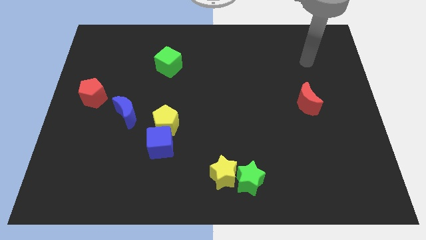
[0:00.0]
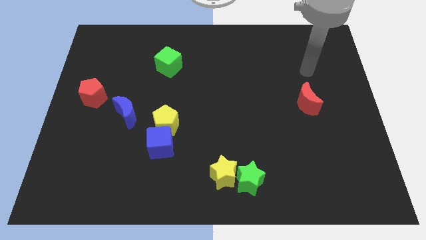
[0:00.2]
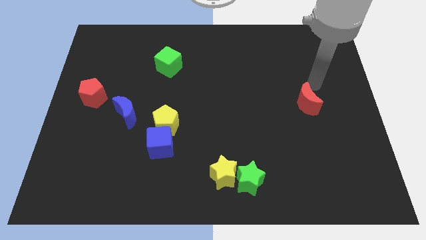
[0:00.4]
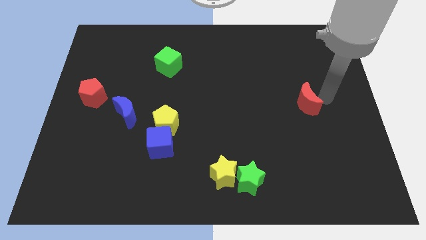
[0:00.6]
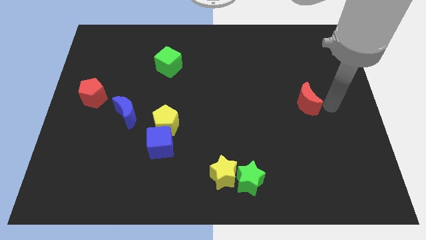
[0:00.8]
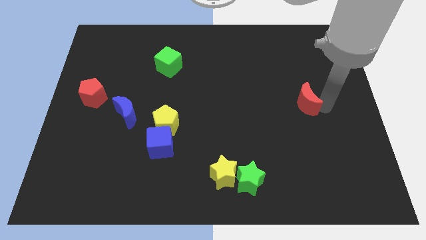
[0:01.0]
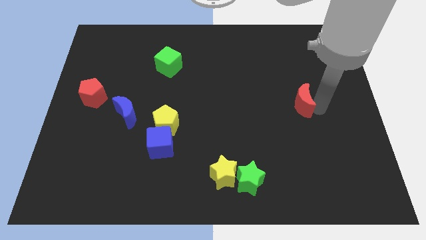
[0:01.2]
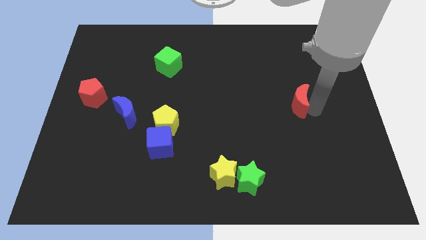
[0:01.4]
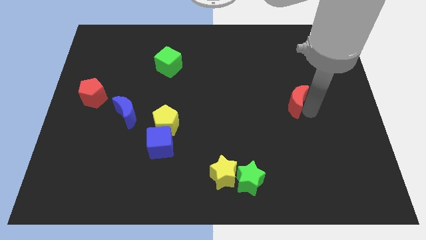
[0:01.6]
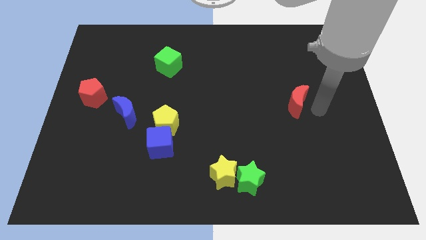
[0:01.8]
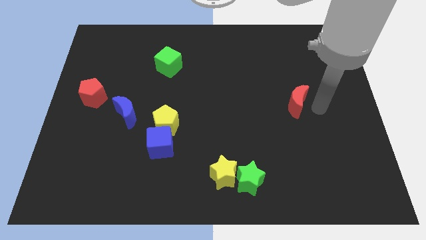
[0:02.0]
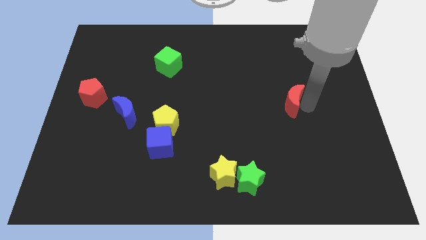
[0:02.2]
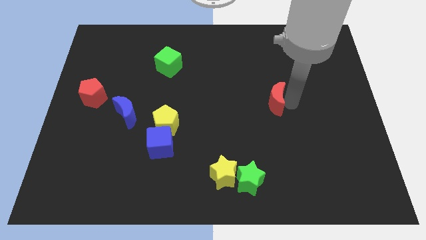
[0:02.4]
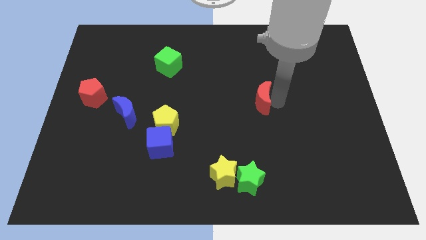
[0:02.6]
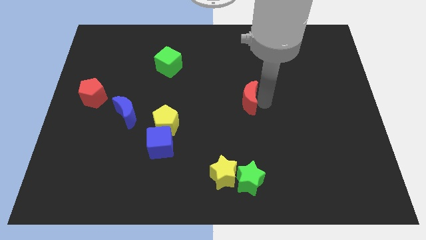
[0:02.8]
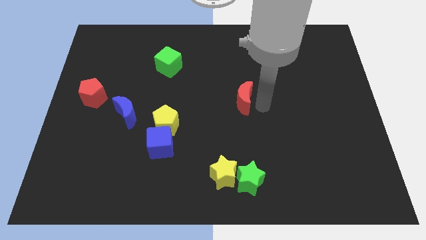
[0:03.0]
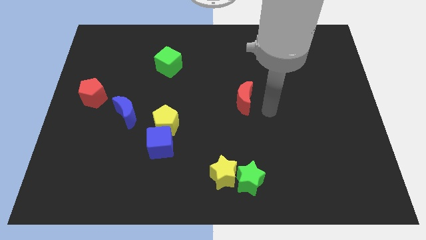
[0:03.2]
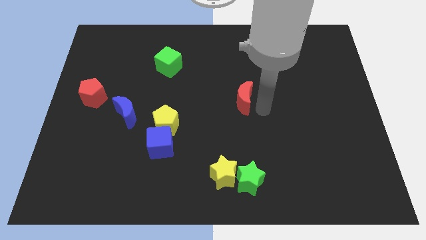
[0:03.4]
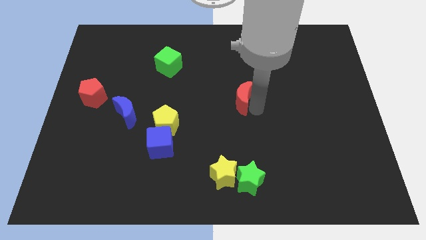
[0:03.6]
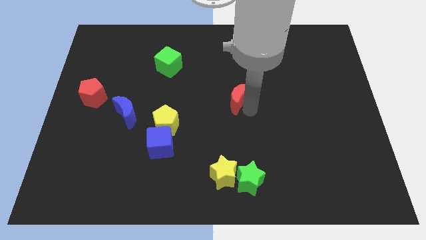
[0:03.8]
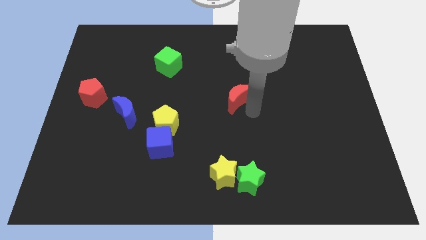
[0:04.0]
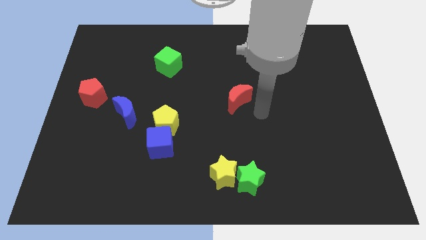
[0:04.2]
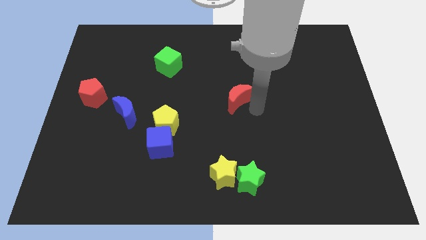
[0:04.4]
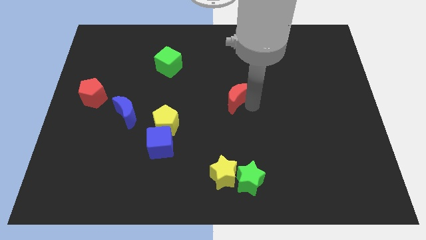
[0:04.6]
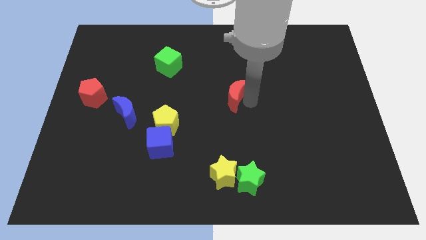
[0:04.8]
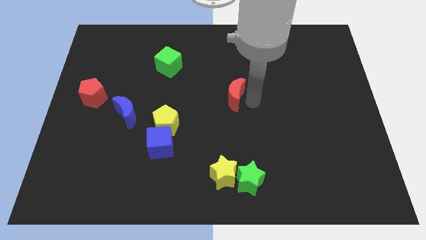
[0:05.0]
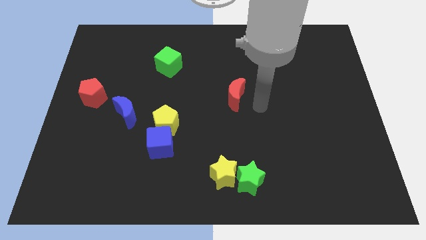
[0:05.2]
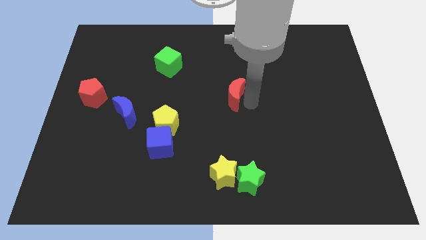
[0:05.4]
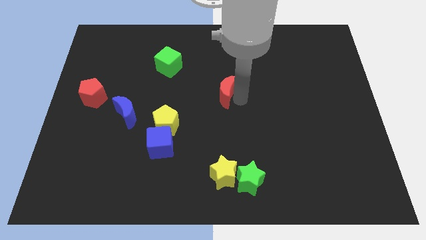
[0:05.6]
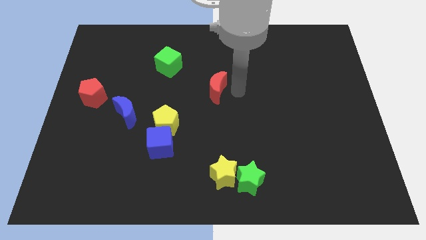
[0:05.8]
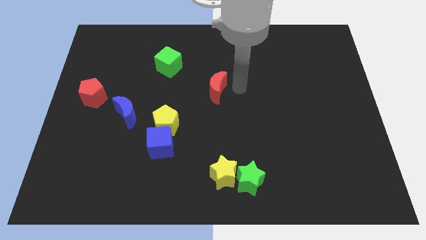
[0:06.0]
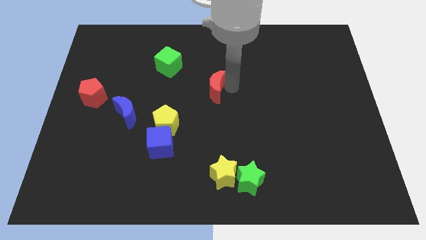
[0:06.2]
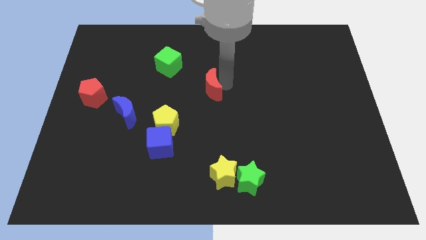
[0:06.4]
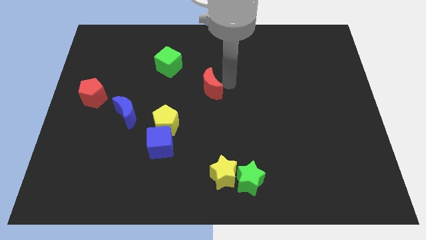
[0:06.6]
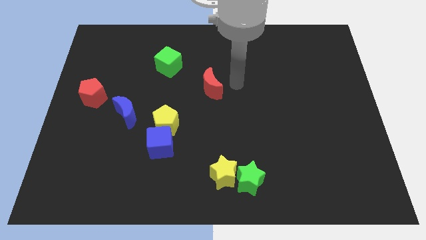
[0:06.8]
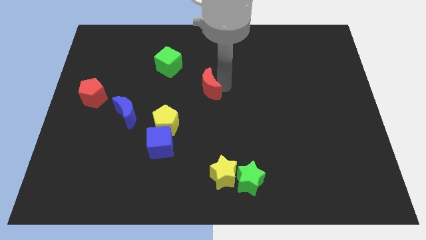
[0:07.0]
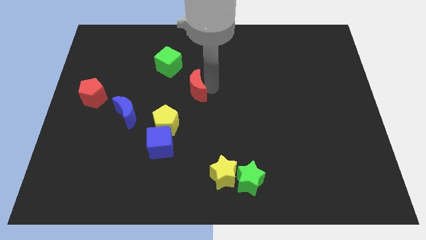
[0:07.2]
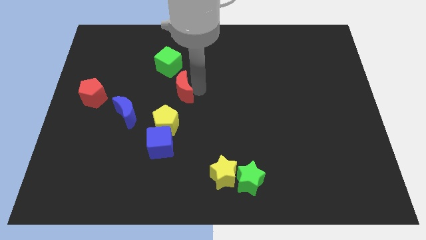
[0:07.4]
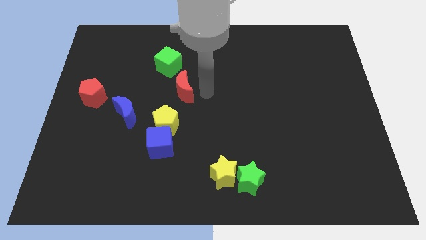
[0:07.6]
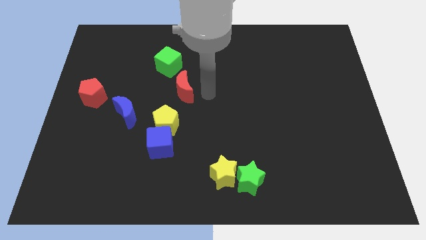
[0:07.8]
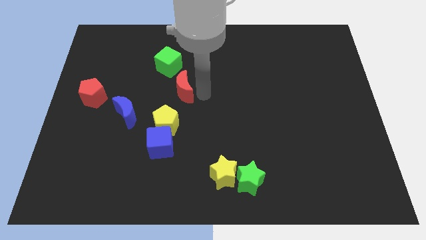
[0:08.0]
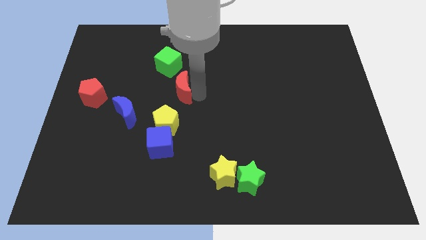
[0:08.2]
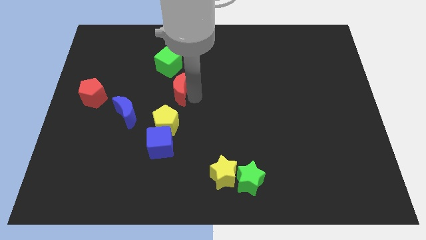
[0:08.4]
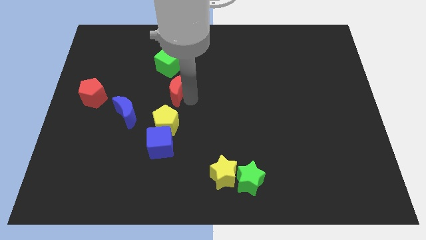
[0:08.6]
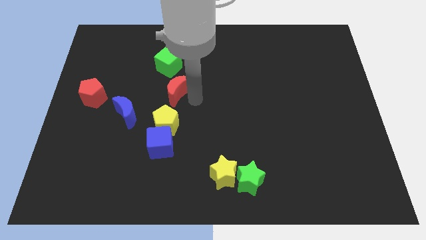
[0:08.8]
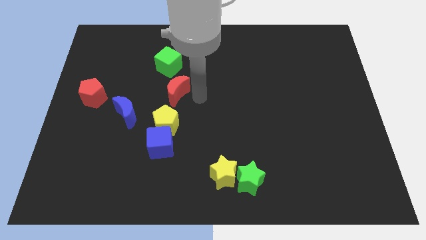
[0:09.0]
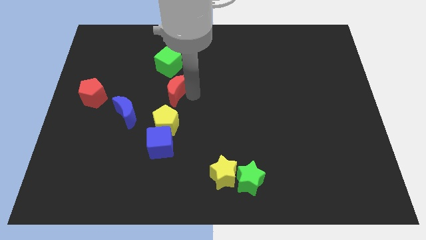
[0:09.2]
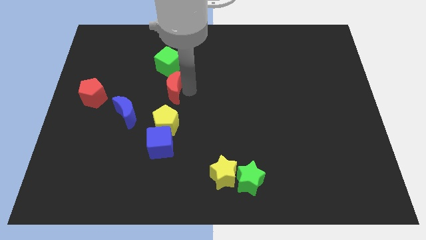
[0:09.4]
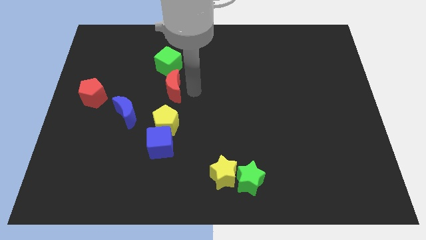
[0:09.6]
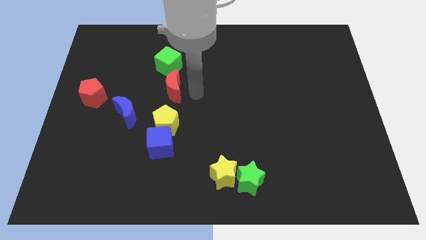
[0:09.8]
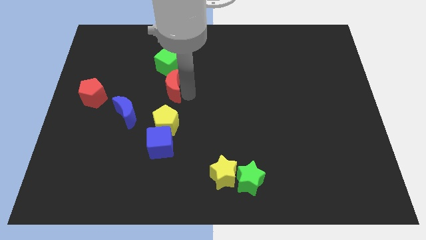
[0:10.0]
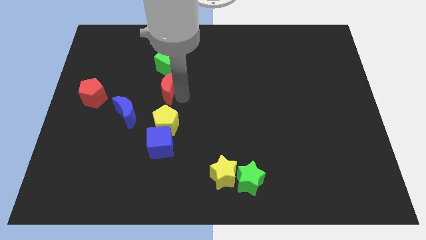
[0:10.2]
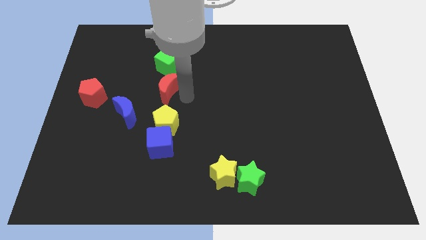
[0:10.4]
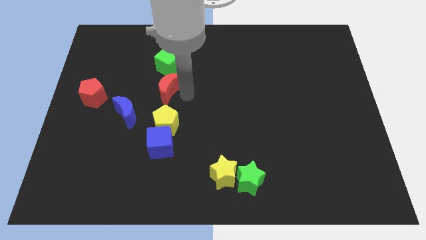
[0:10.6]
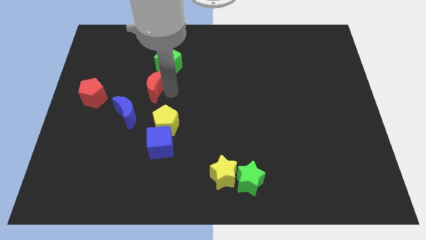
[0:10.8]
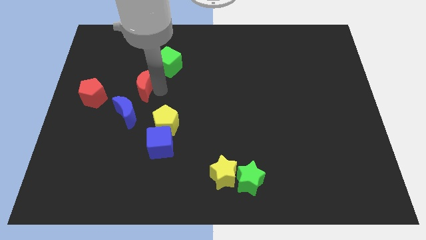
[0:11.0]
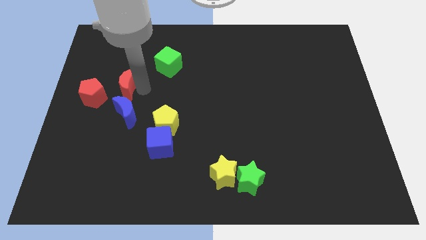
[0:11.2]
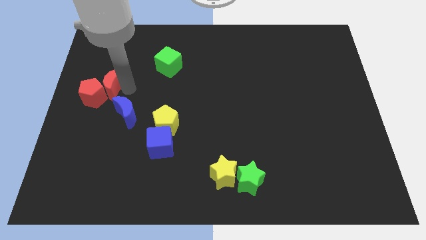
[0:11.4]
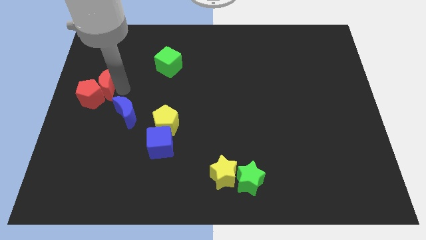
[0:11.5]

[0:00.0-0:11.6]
slide the red moon to the left side of the board

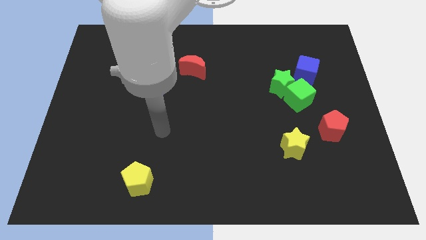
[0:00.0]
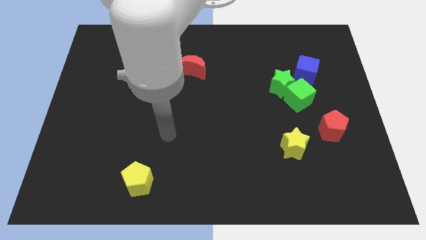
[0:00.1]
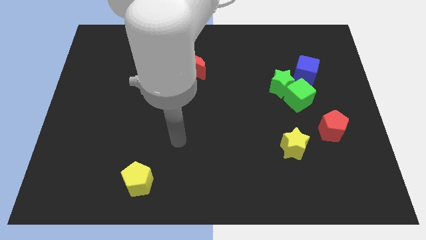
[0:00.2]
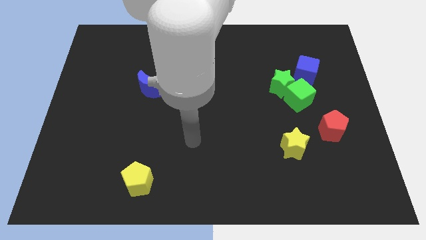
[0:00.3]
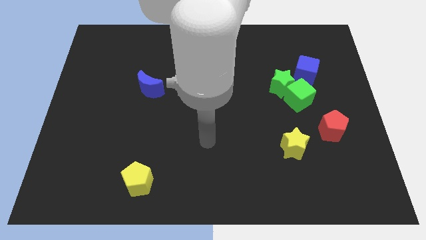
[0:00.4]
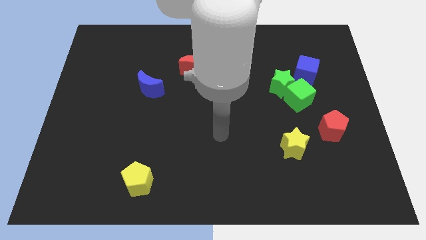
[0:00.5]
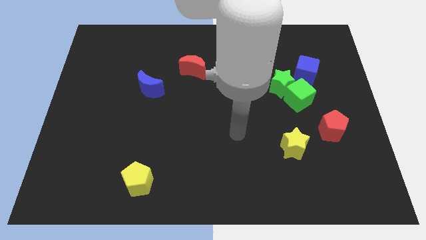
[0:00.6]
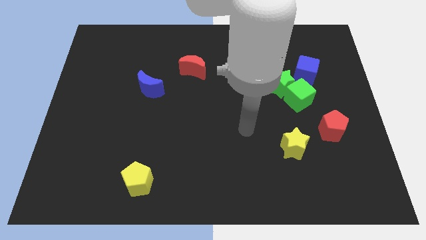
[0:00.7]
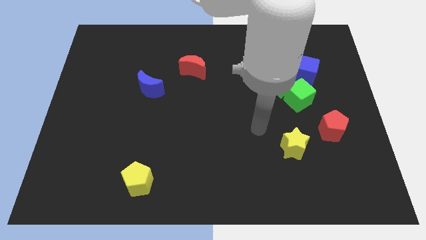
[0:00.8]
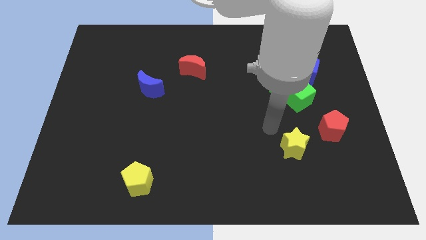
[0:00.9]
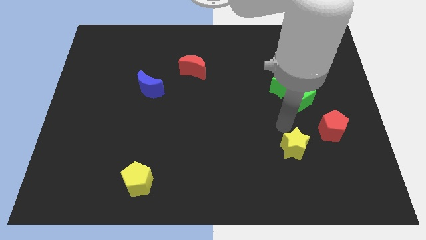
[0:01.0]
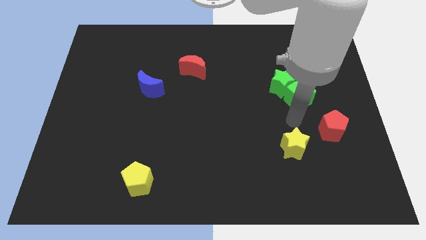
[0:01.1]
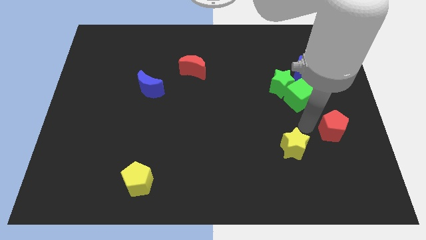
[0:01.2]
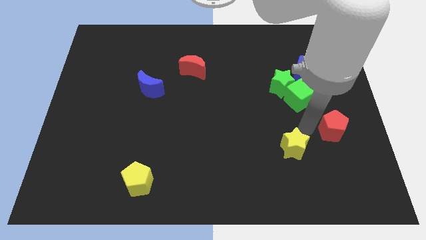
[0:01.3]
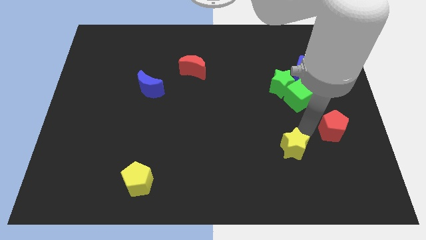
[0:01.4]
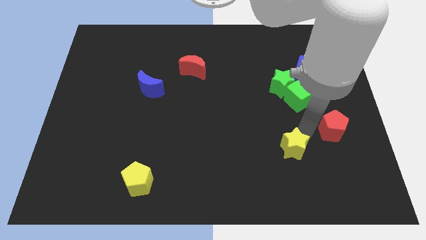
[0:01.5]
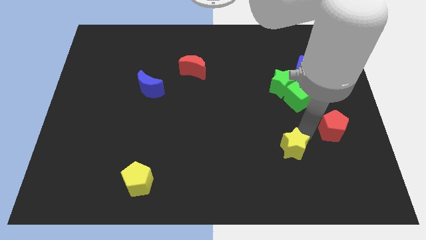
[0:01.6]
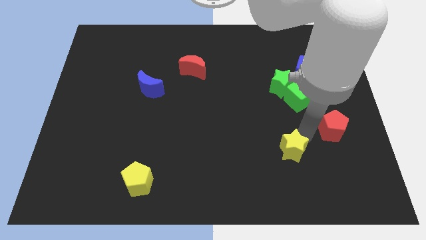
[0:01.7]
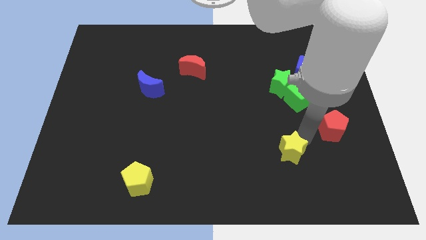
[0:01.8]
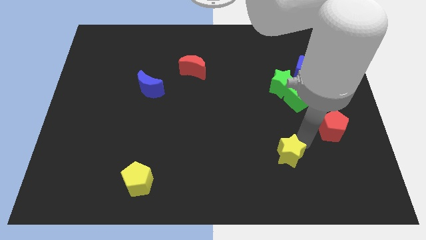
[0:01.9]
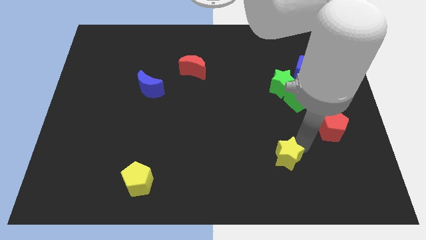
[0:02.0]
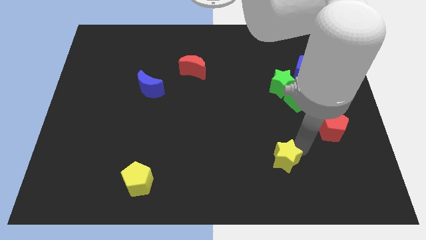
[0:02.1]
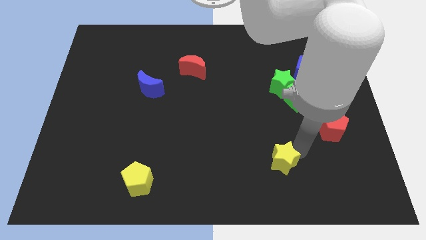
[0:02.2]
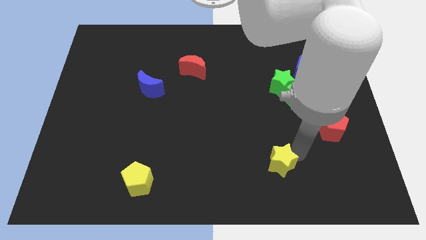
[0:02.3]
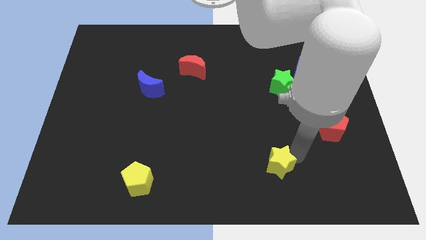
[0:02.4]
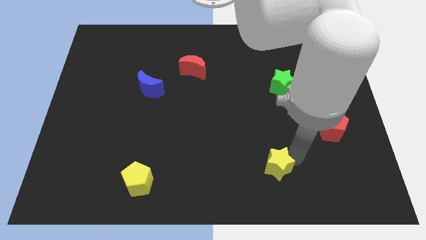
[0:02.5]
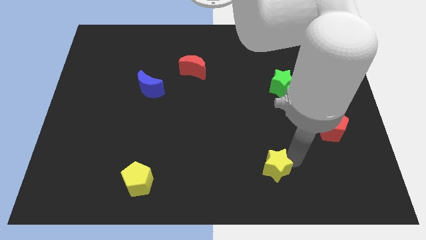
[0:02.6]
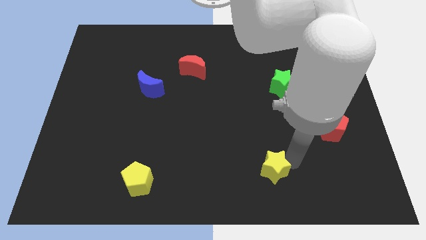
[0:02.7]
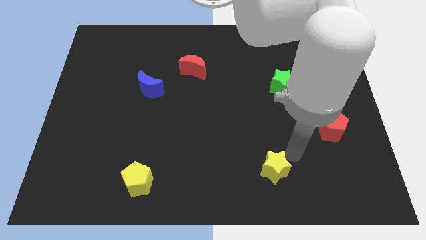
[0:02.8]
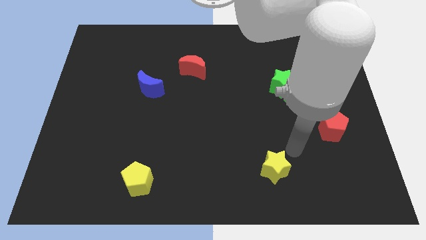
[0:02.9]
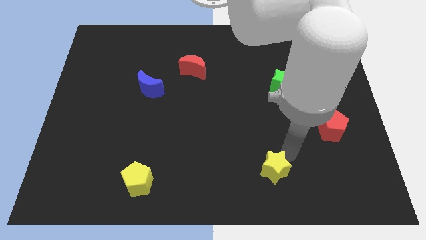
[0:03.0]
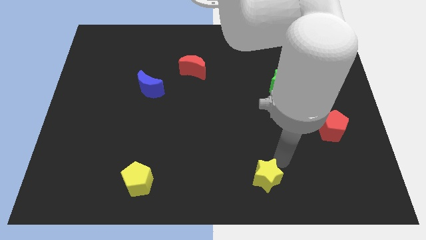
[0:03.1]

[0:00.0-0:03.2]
push the yellow star to the bottom
